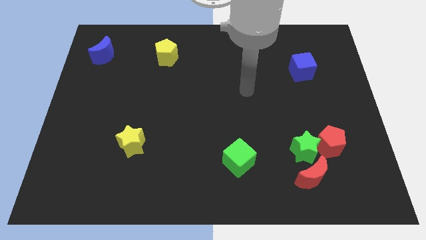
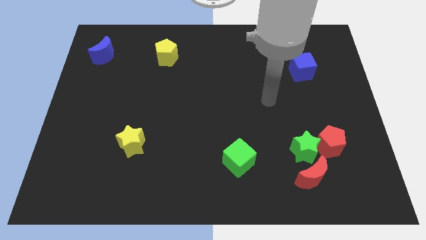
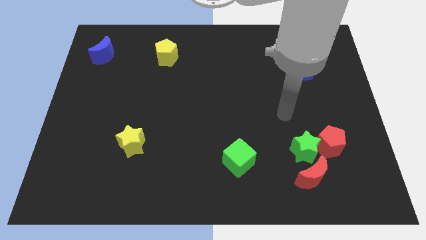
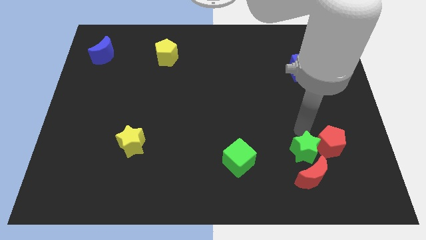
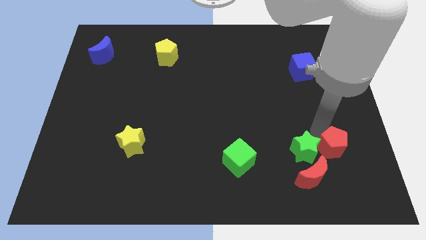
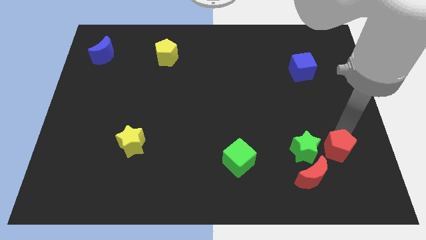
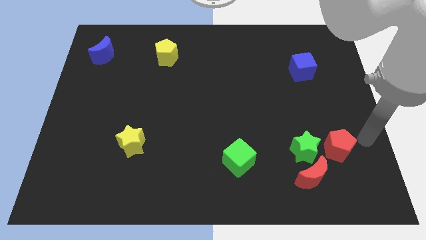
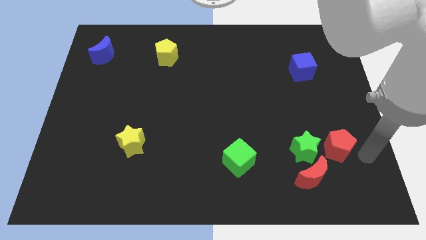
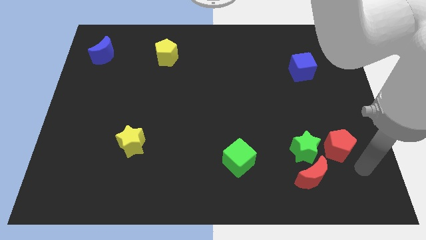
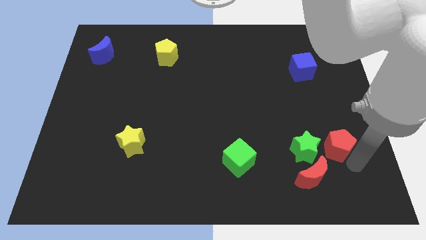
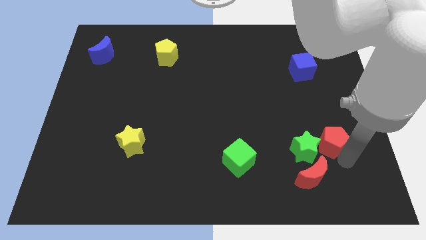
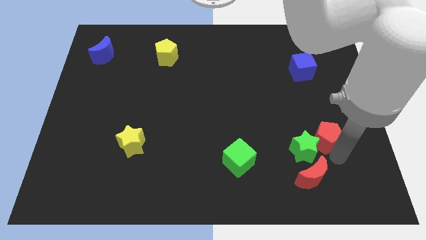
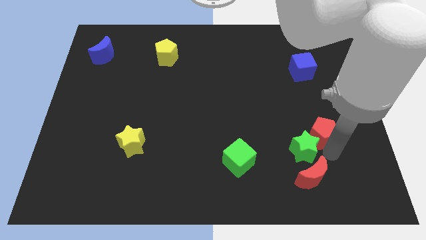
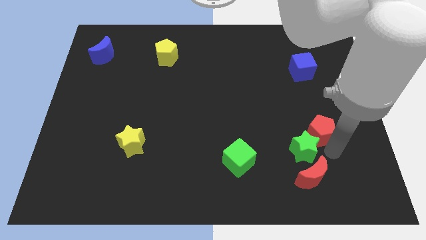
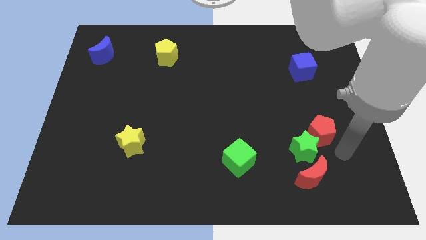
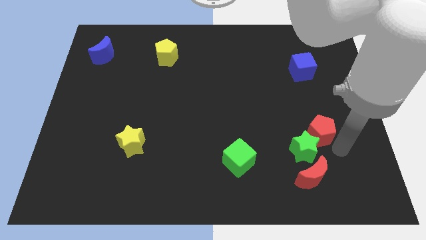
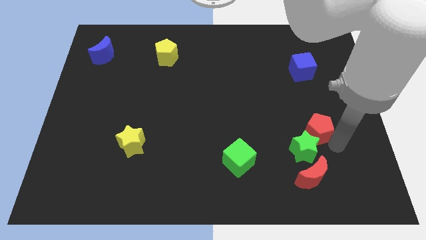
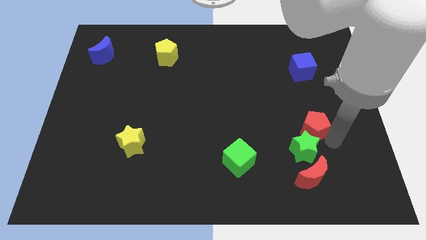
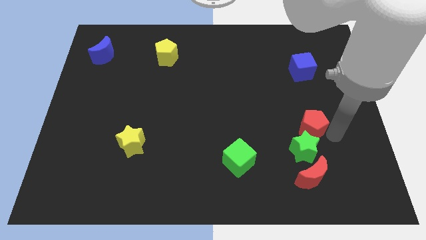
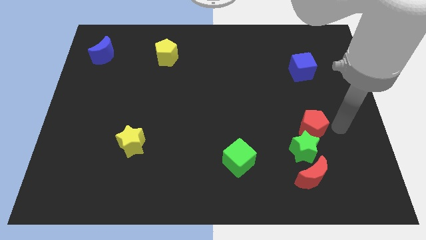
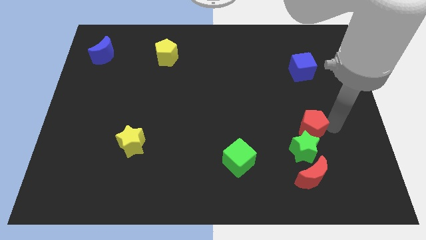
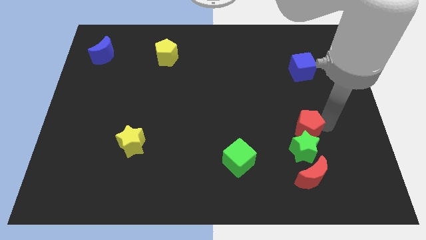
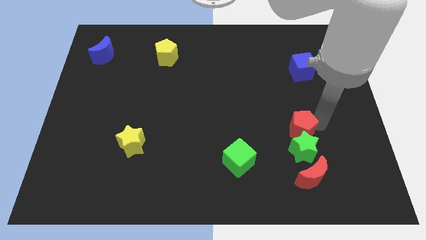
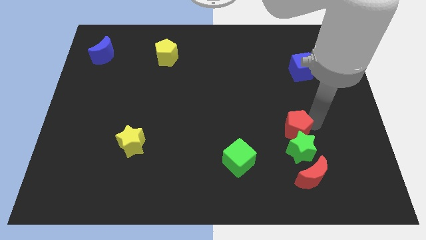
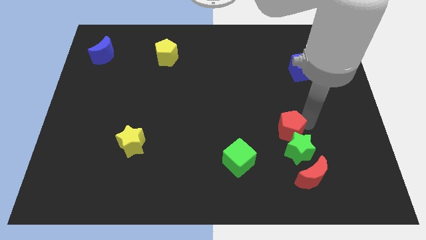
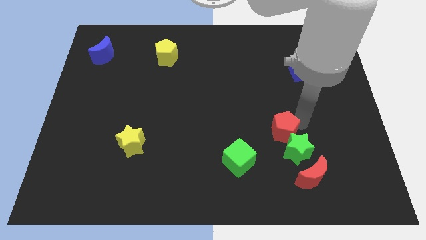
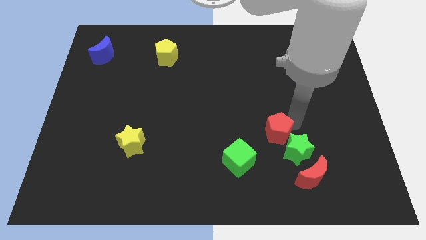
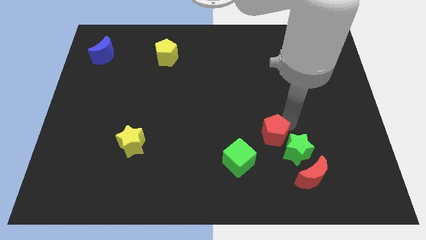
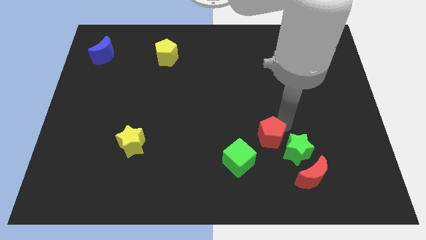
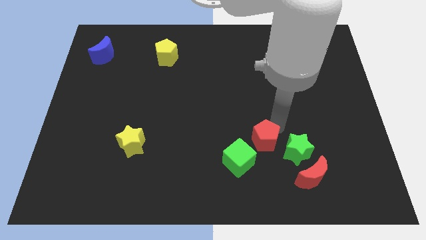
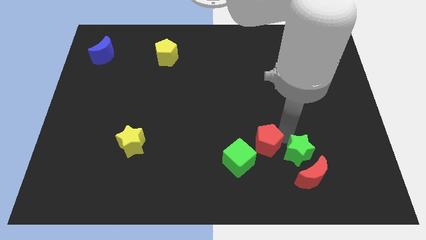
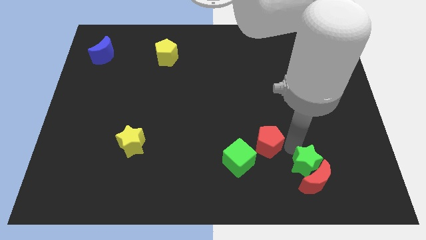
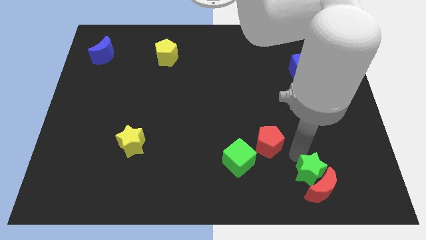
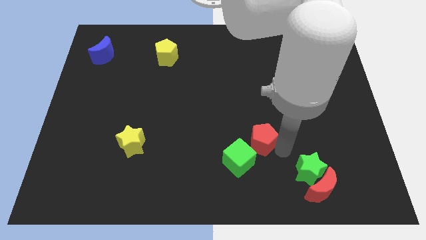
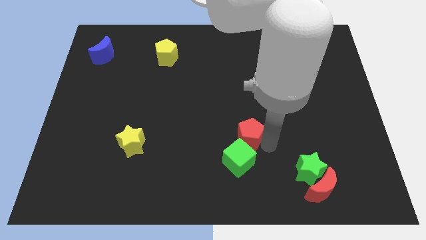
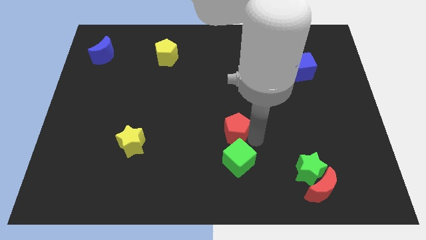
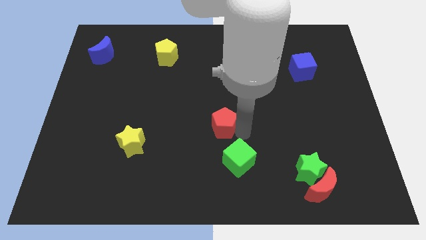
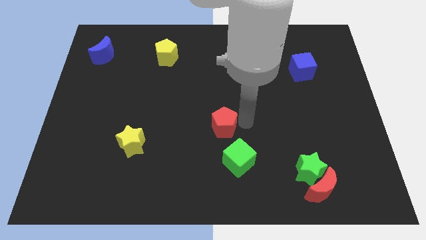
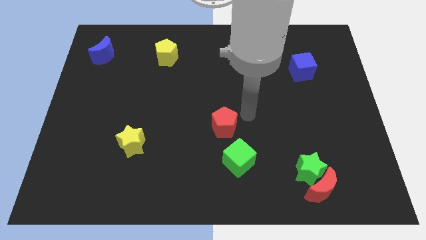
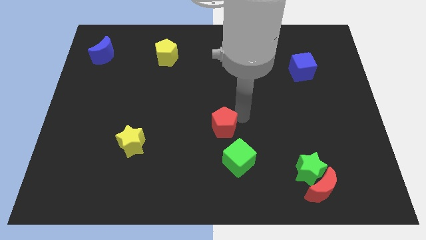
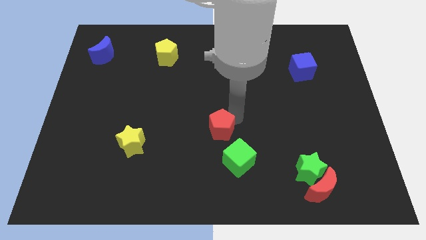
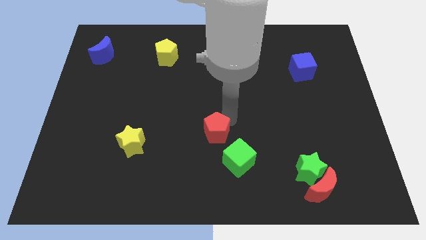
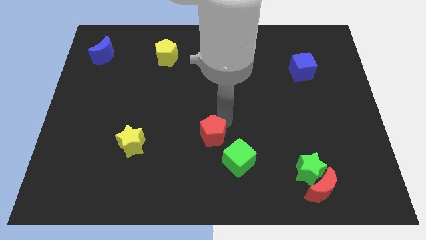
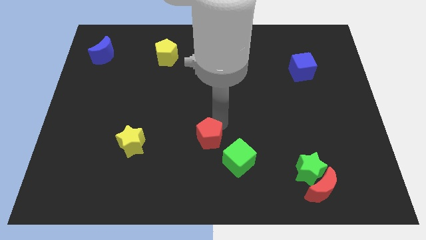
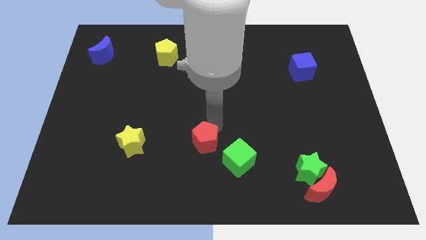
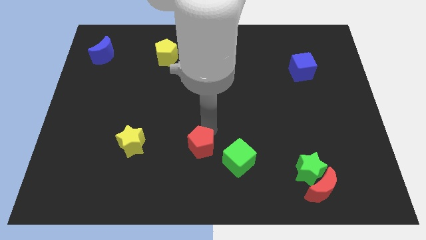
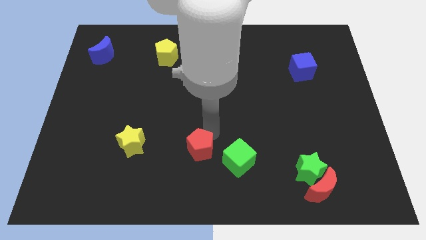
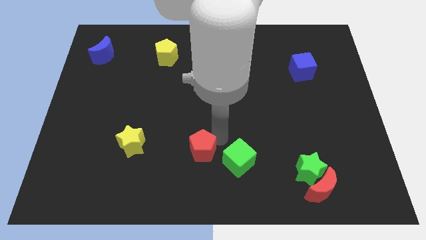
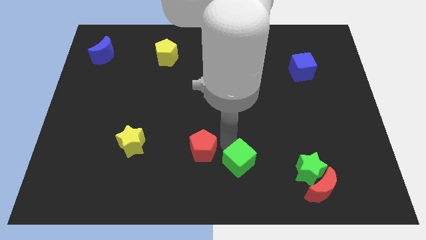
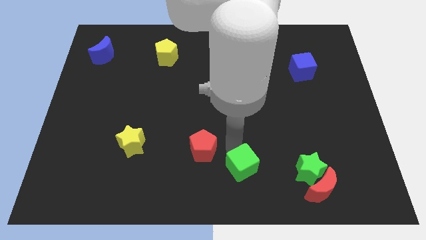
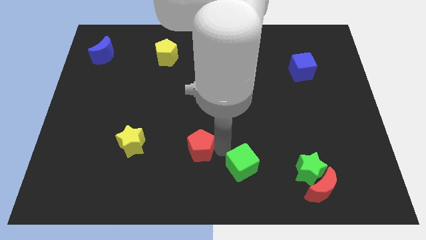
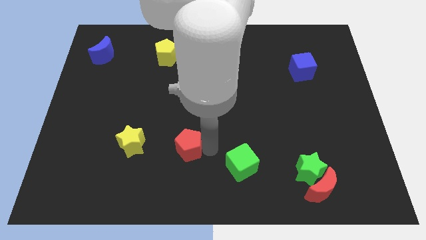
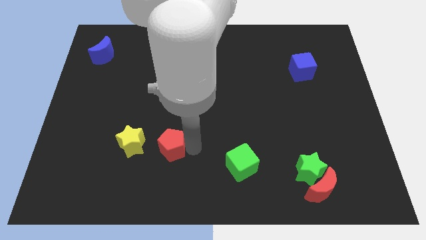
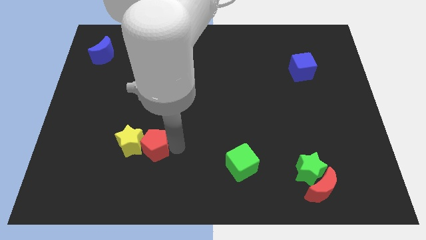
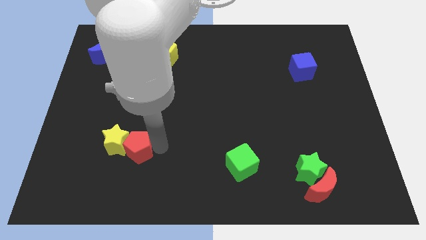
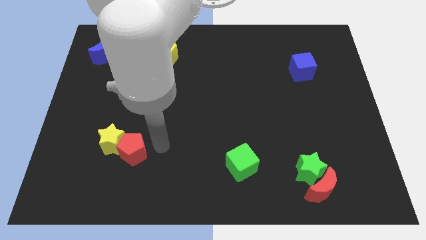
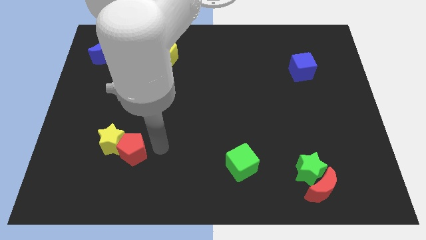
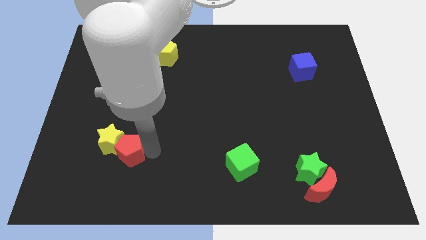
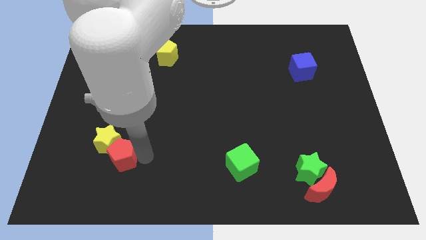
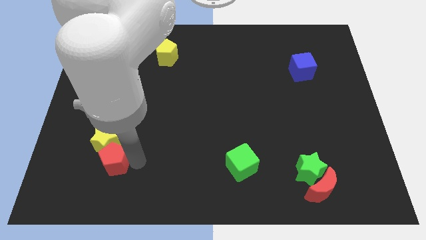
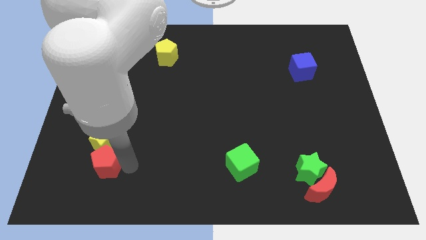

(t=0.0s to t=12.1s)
put the red pentagon to the bottom left of the yellow star

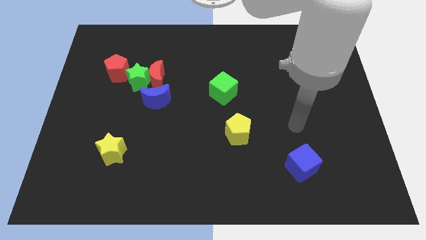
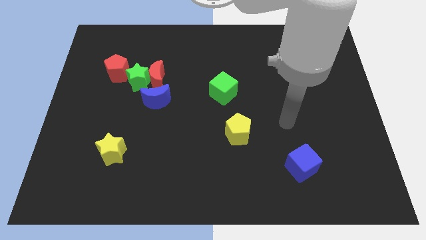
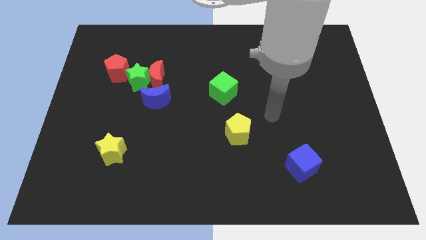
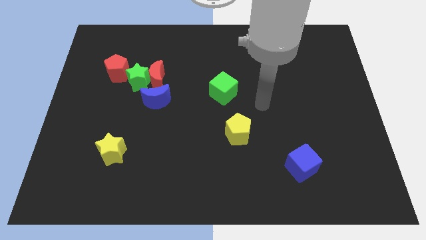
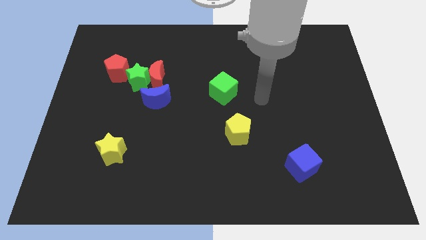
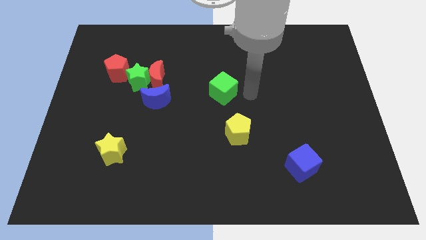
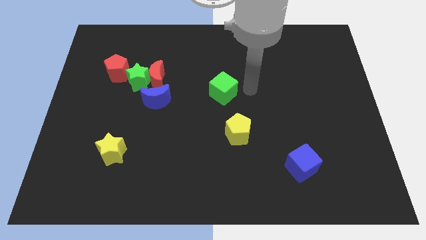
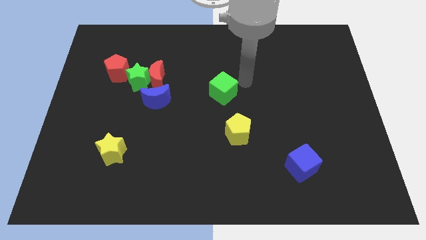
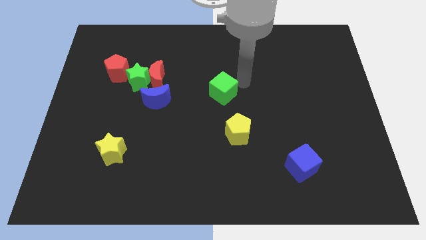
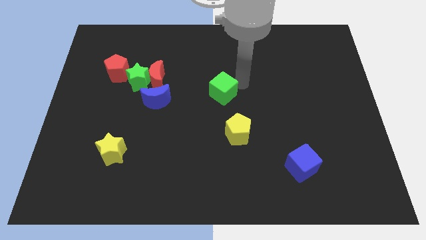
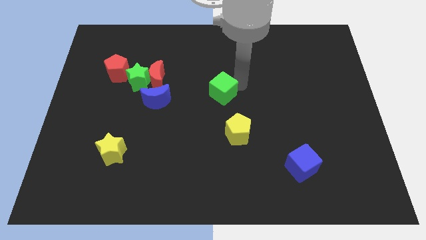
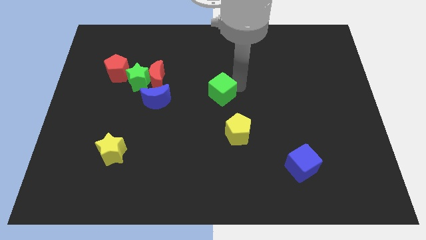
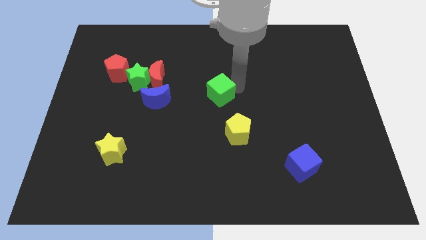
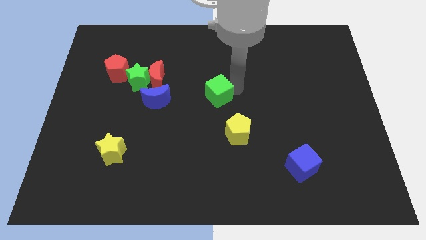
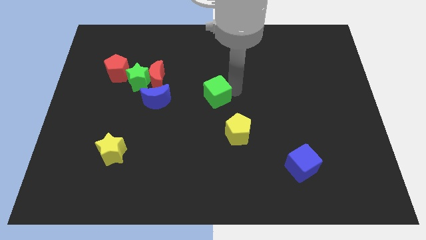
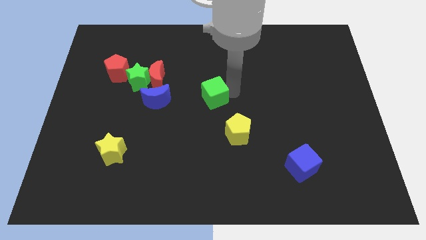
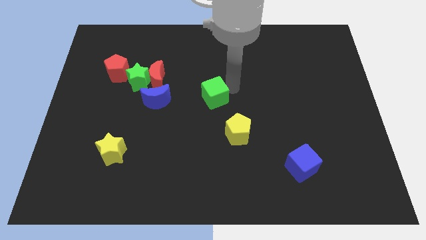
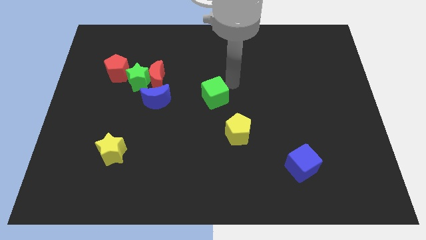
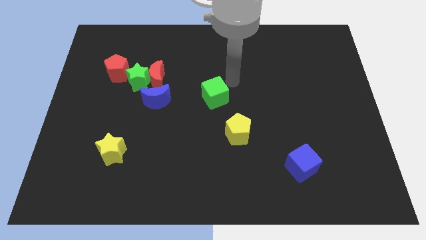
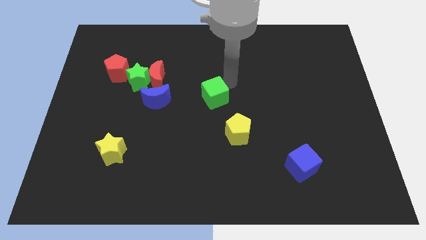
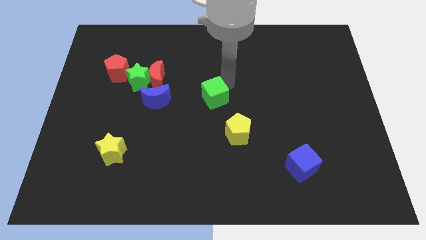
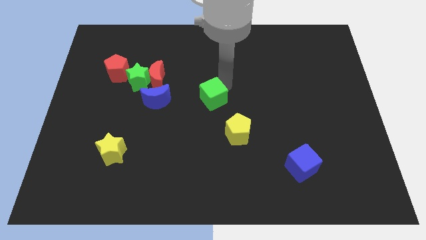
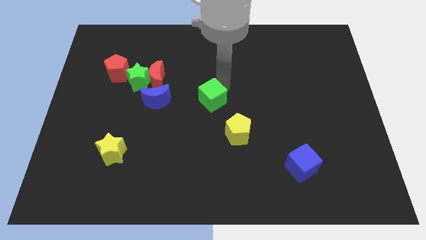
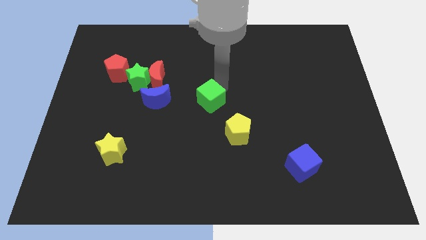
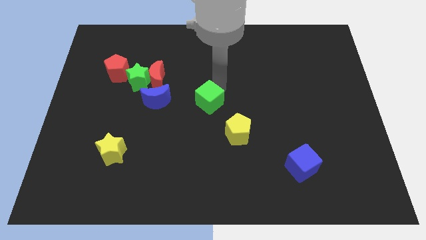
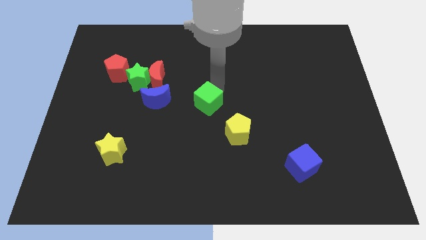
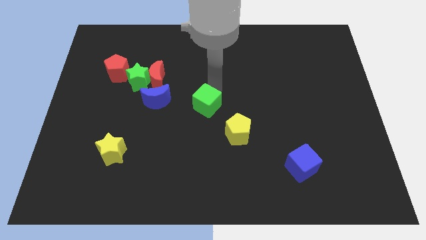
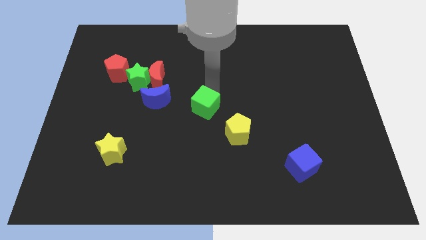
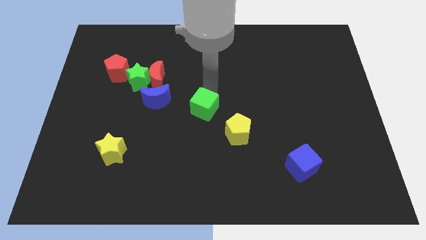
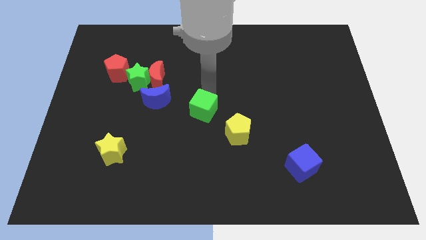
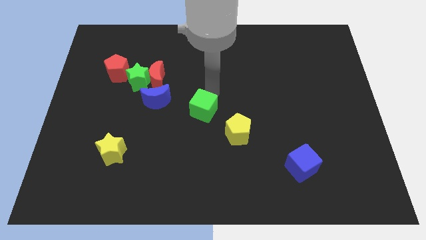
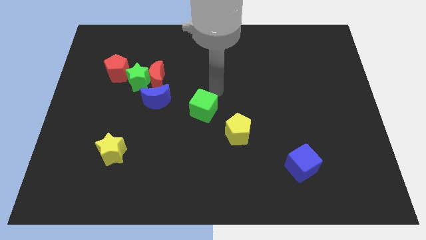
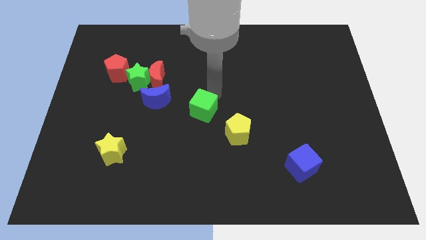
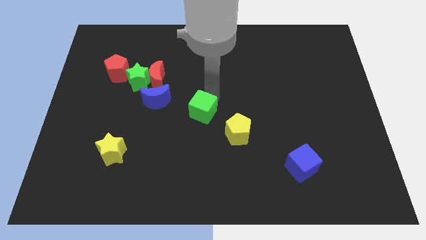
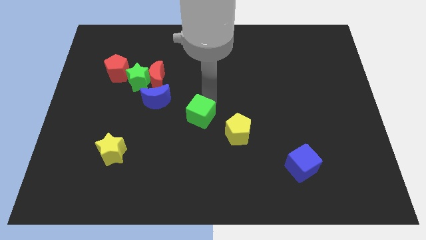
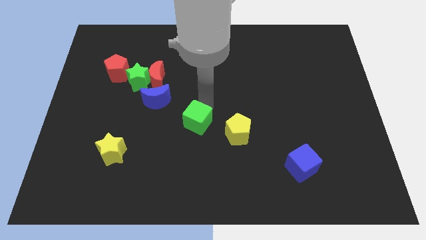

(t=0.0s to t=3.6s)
slide the green cube to the left side of the yellow pentagon
